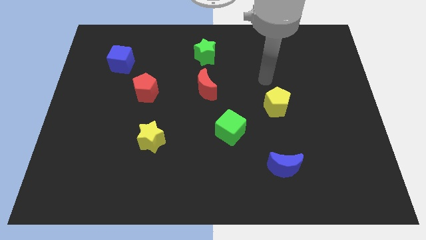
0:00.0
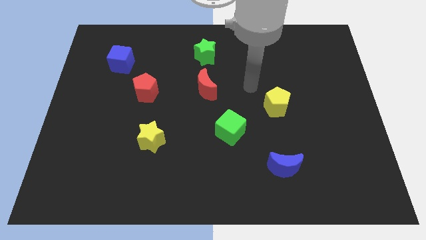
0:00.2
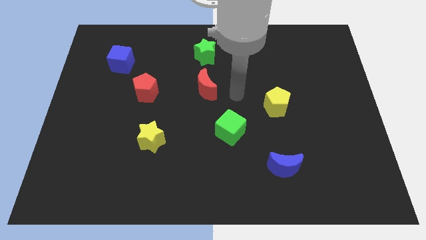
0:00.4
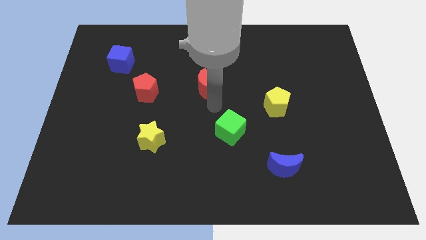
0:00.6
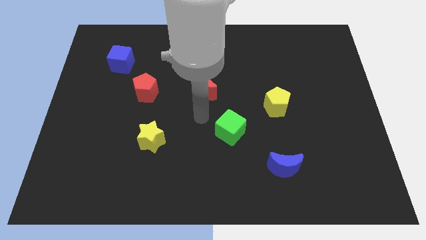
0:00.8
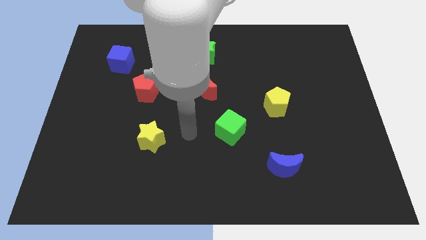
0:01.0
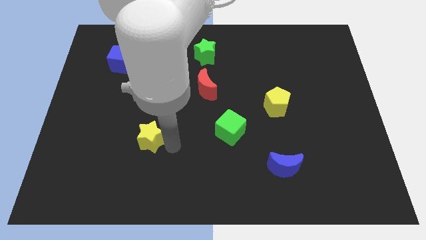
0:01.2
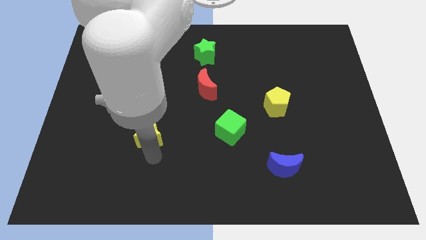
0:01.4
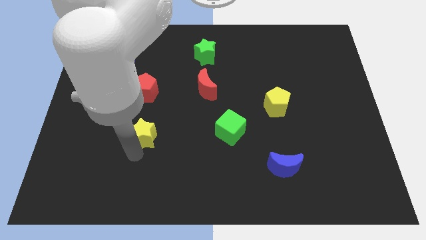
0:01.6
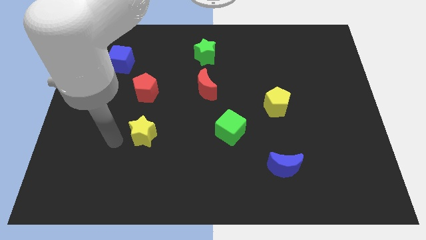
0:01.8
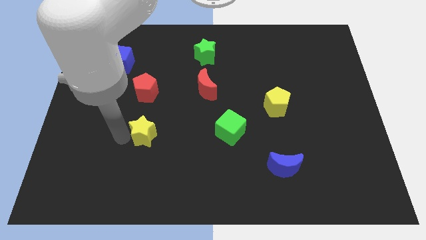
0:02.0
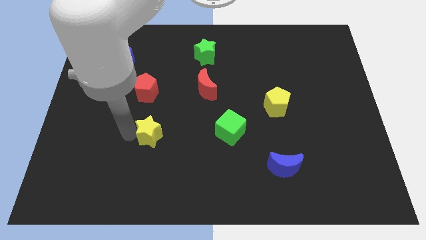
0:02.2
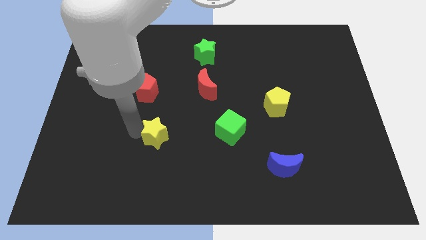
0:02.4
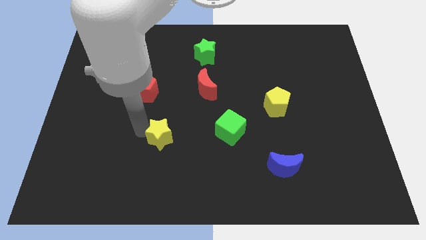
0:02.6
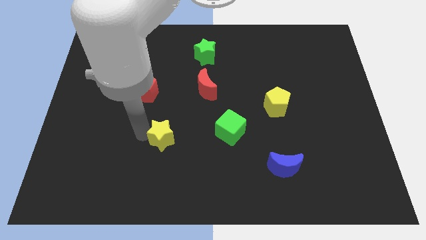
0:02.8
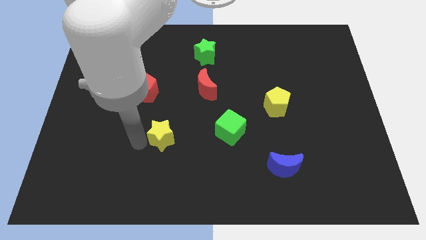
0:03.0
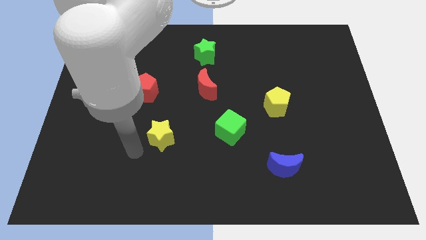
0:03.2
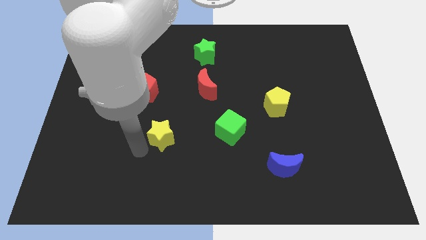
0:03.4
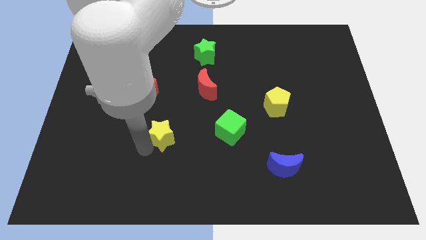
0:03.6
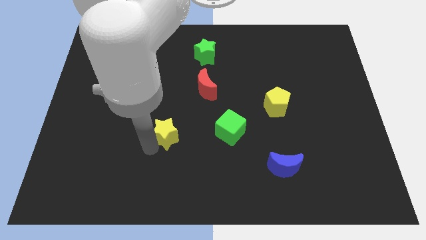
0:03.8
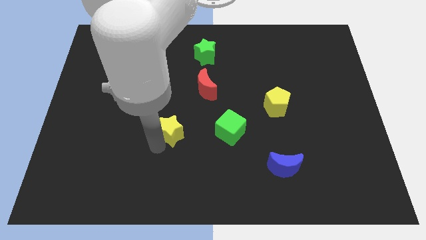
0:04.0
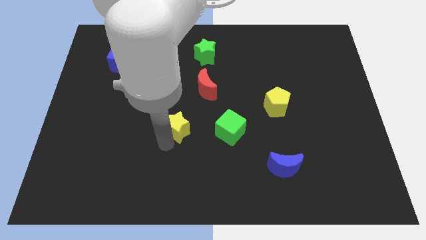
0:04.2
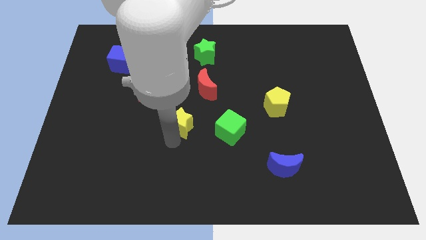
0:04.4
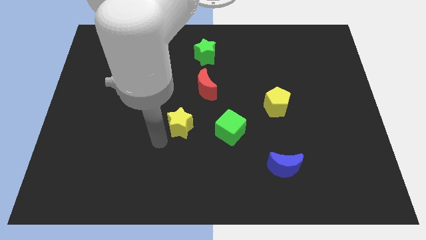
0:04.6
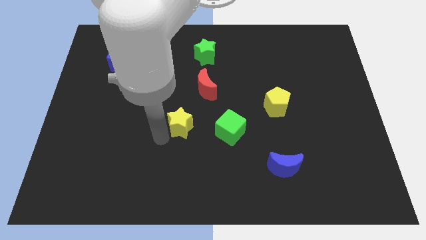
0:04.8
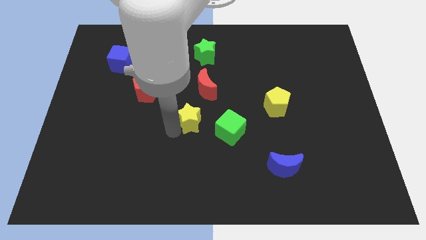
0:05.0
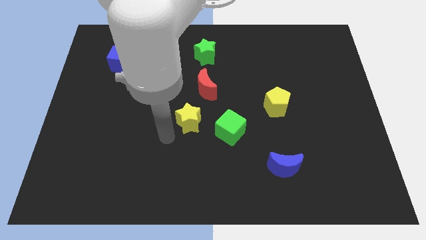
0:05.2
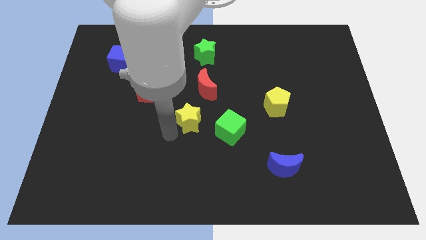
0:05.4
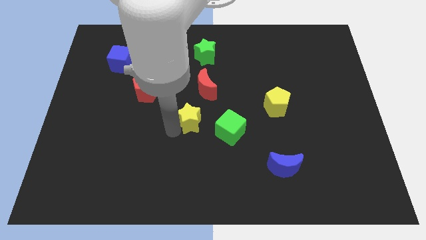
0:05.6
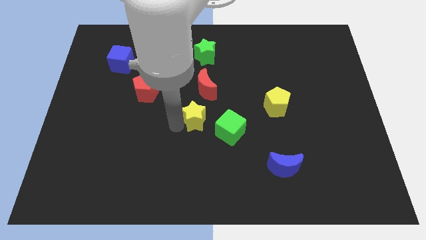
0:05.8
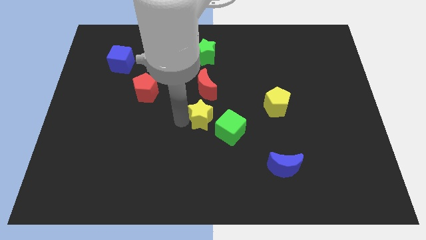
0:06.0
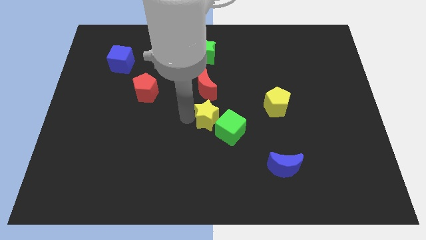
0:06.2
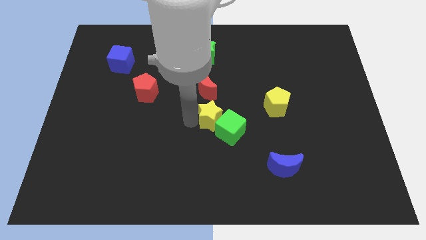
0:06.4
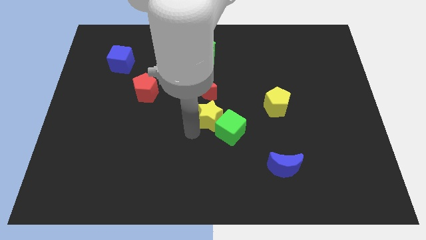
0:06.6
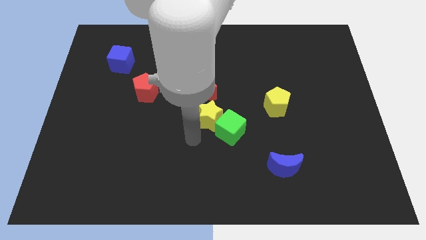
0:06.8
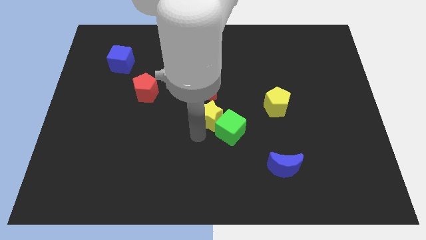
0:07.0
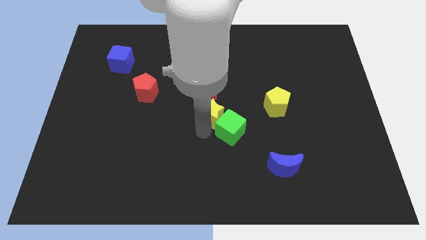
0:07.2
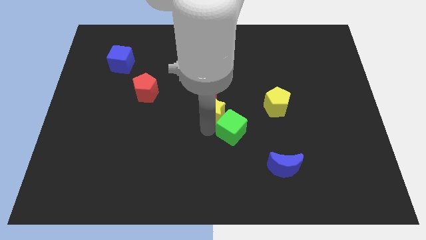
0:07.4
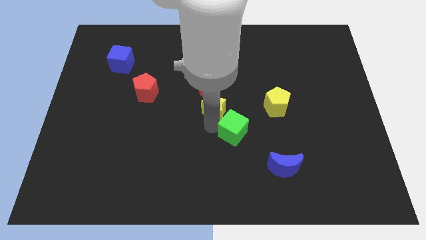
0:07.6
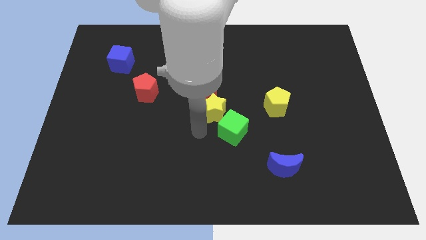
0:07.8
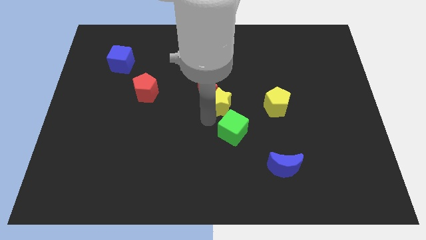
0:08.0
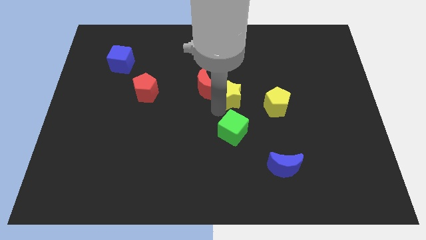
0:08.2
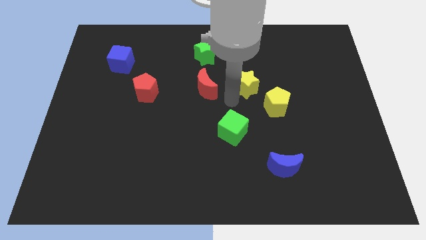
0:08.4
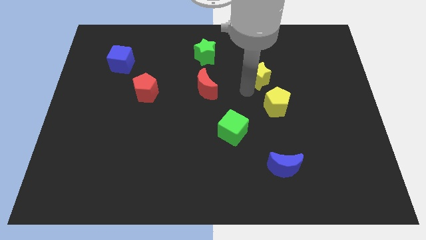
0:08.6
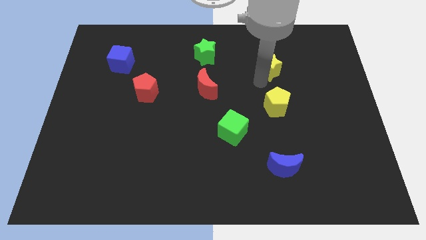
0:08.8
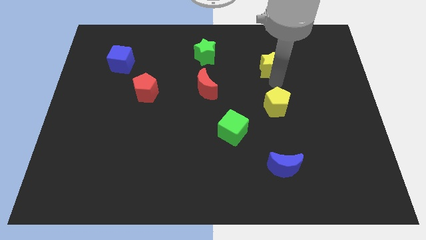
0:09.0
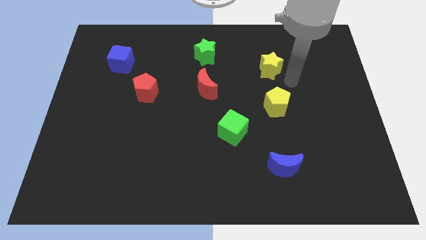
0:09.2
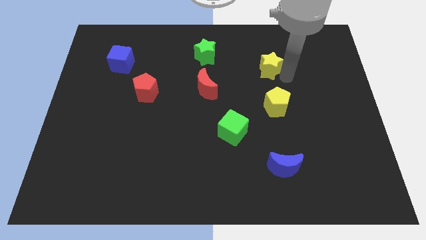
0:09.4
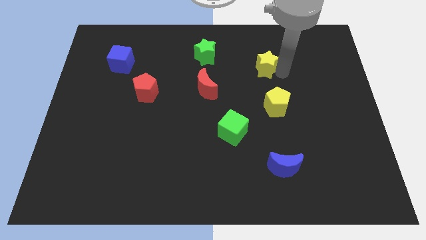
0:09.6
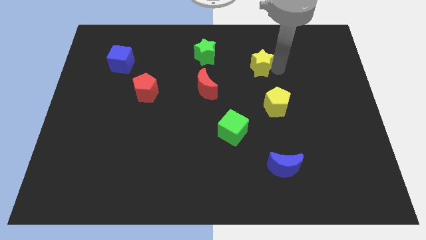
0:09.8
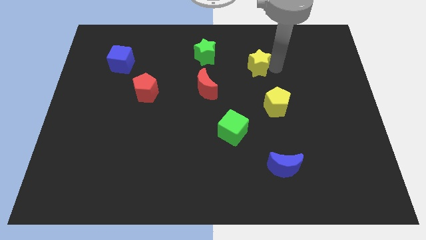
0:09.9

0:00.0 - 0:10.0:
push the yellow star right of the green star

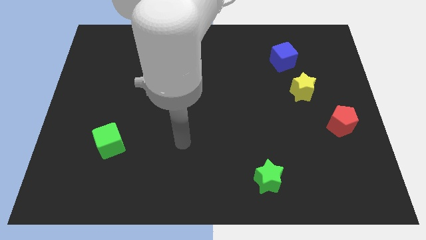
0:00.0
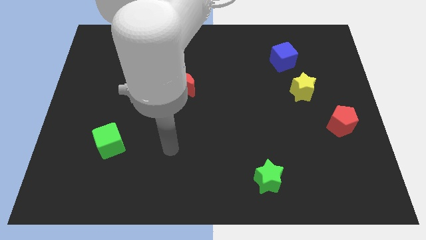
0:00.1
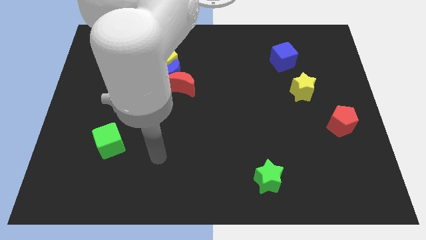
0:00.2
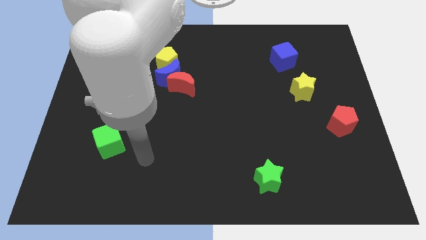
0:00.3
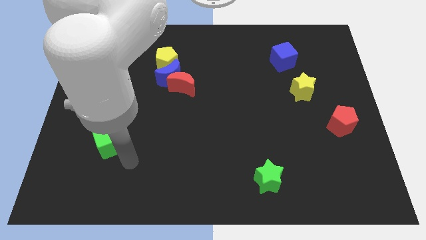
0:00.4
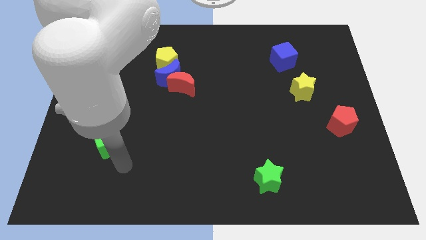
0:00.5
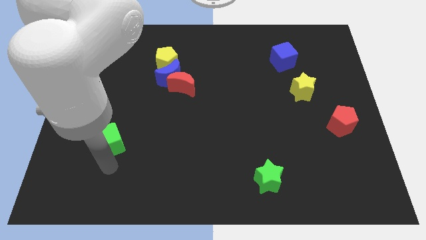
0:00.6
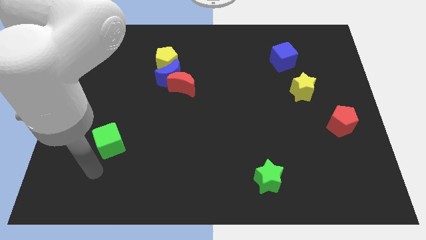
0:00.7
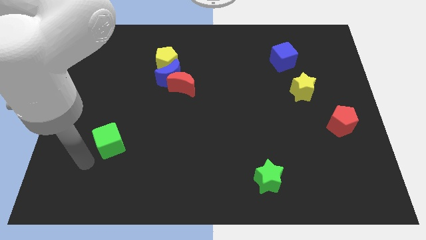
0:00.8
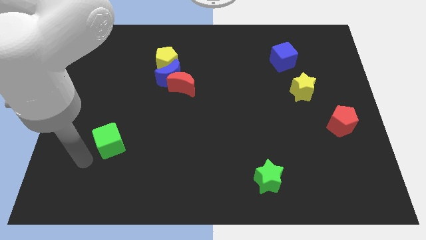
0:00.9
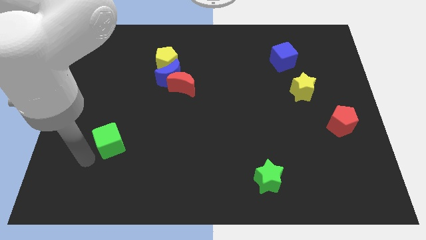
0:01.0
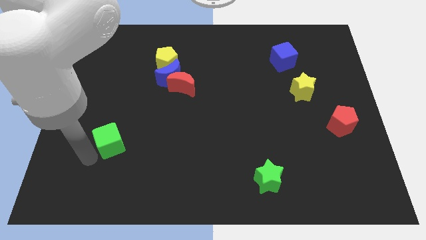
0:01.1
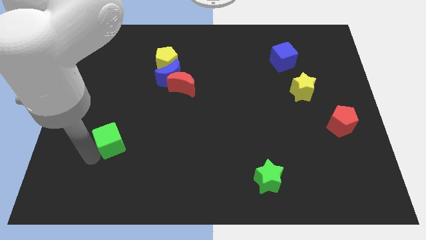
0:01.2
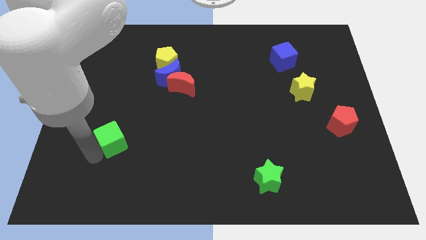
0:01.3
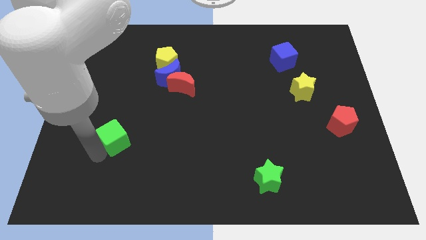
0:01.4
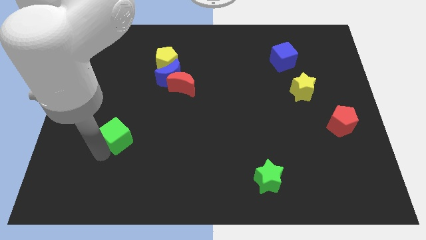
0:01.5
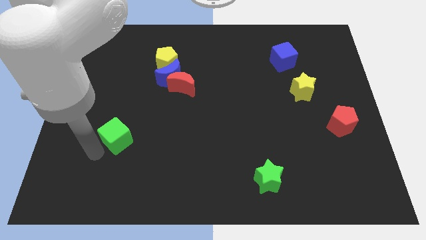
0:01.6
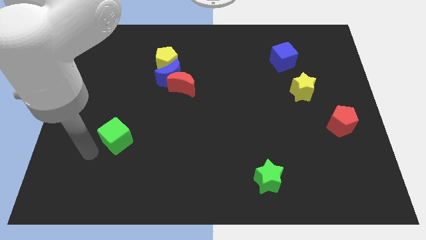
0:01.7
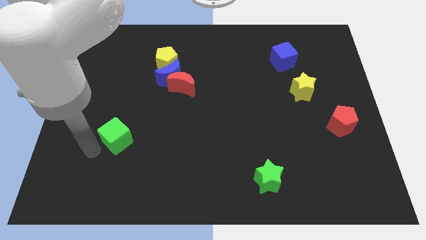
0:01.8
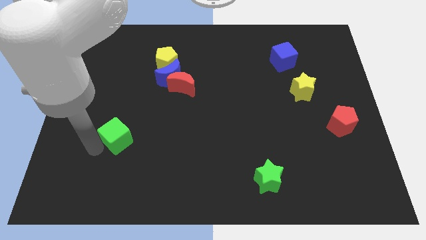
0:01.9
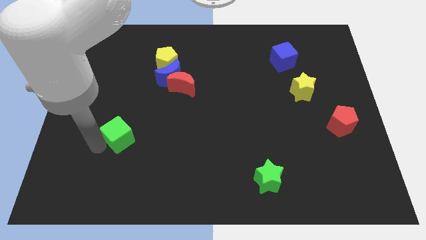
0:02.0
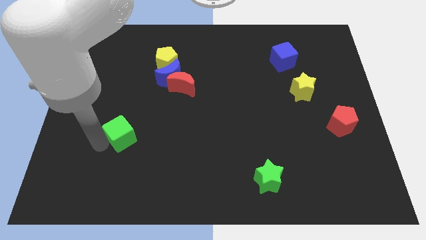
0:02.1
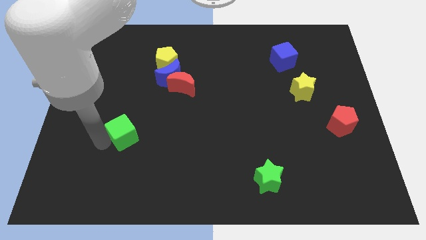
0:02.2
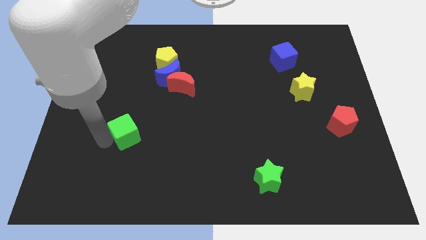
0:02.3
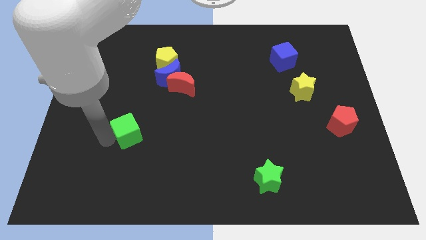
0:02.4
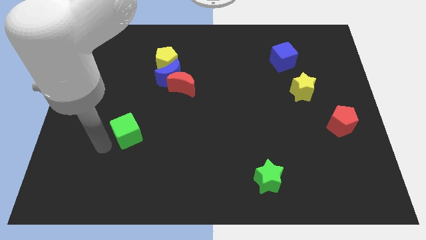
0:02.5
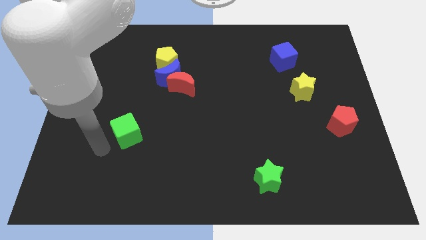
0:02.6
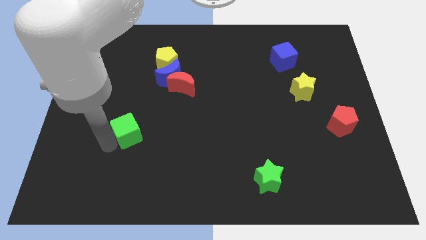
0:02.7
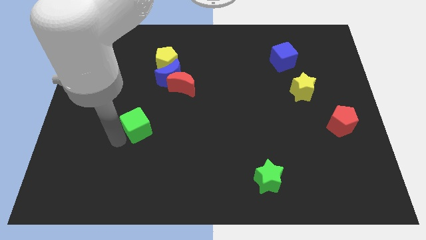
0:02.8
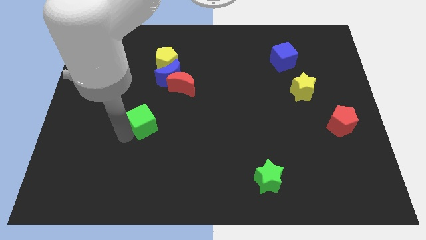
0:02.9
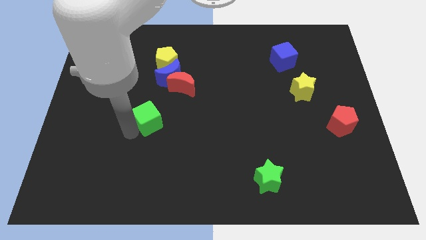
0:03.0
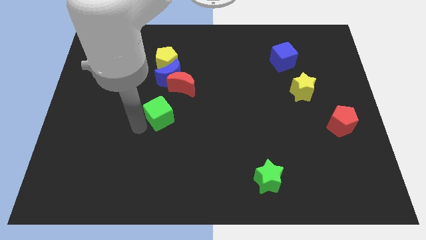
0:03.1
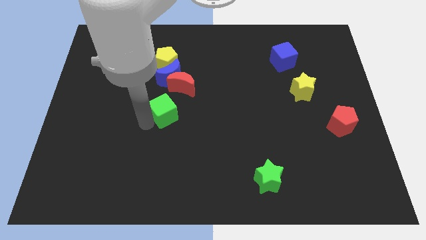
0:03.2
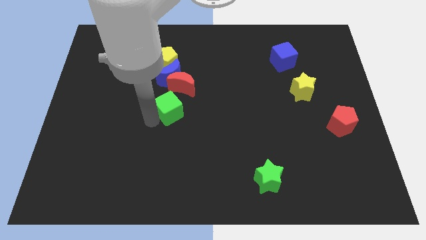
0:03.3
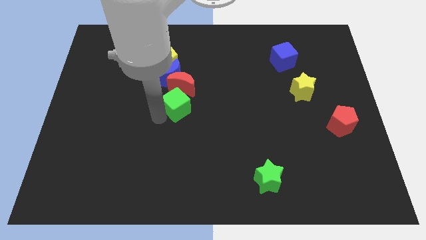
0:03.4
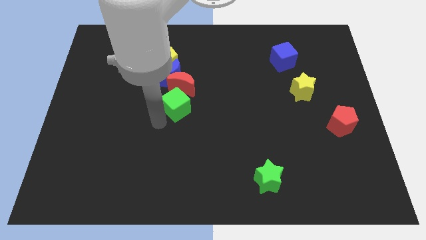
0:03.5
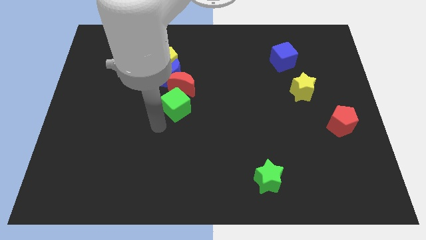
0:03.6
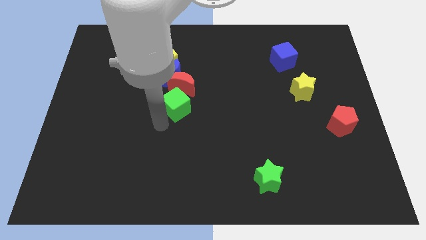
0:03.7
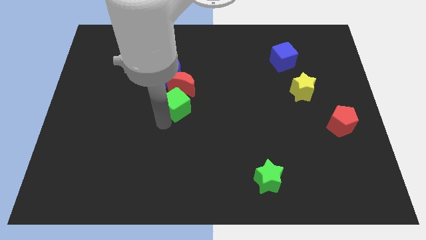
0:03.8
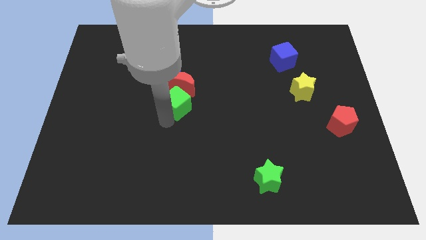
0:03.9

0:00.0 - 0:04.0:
slide the green cube to the bottom right of the blue moon
